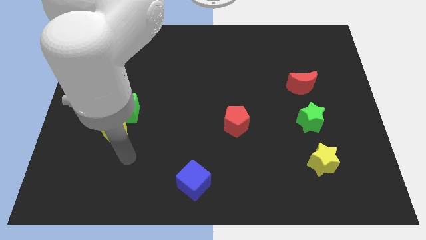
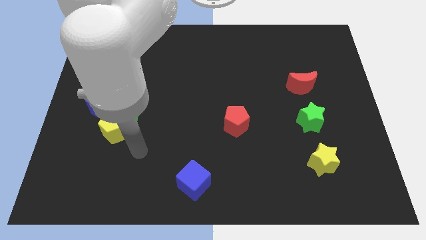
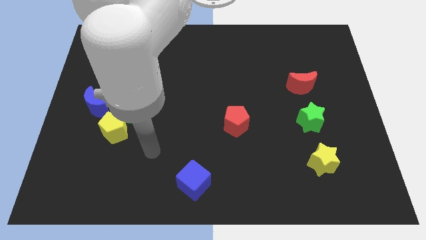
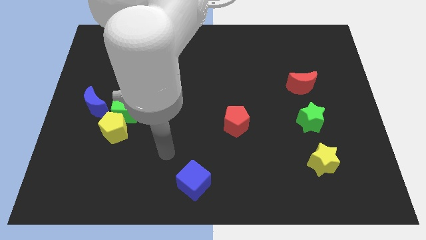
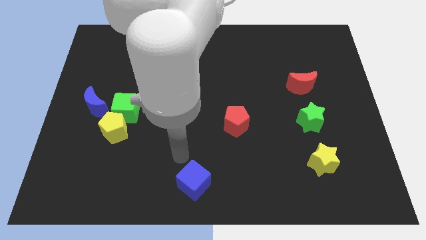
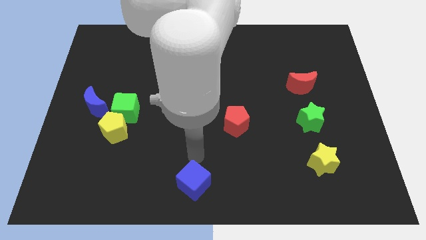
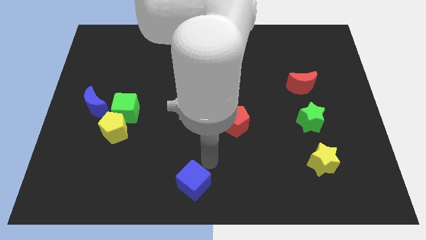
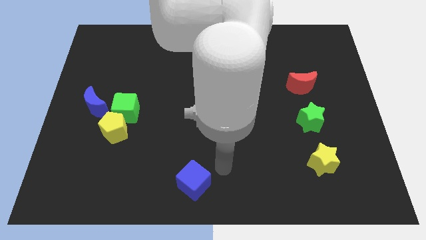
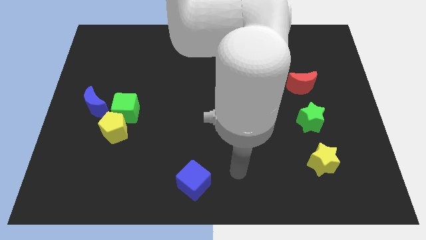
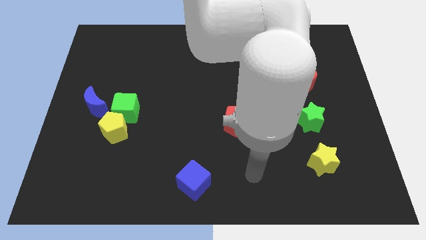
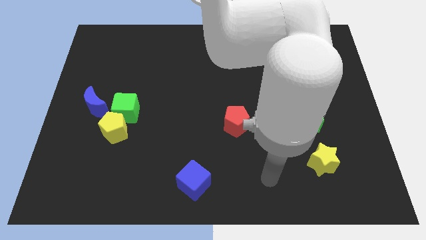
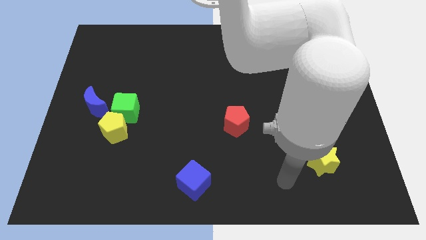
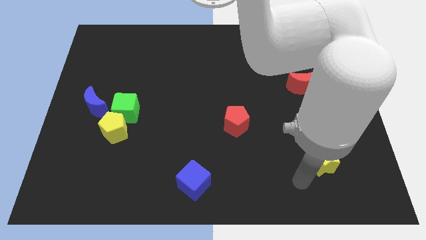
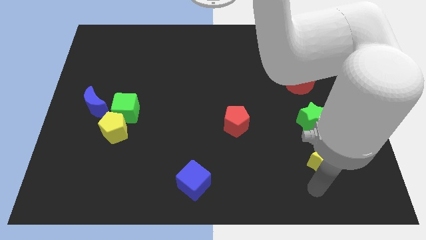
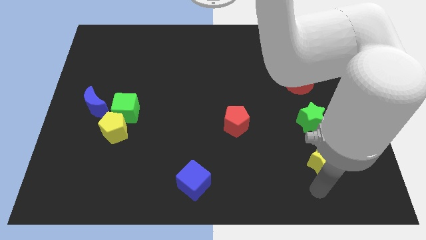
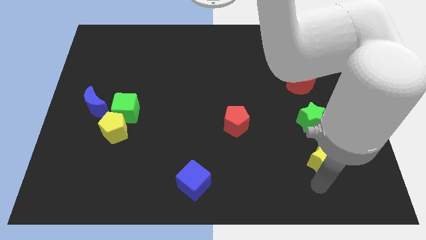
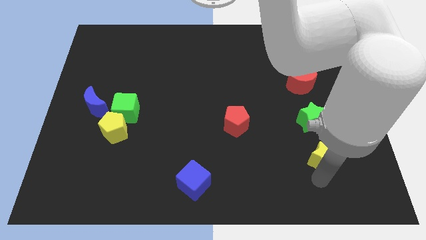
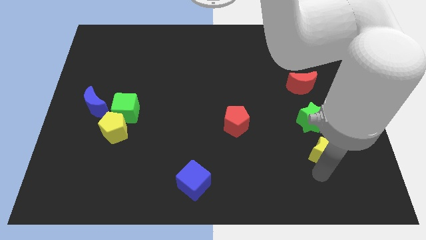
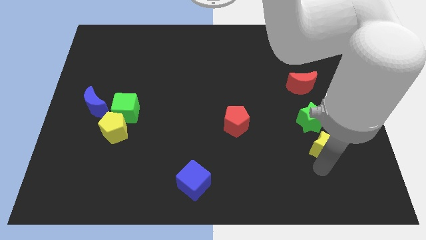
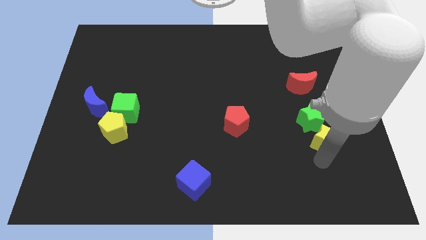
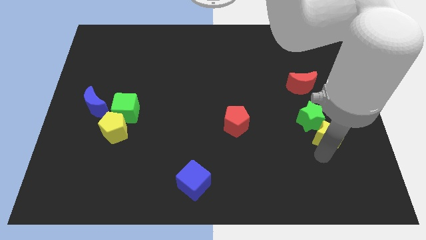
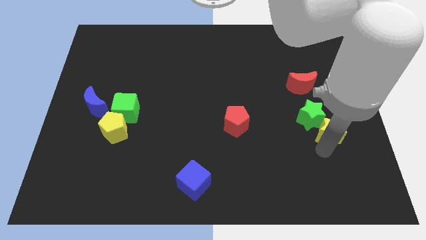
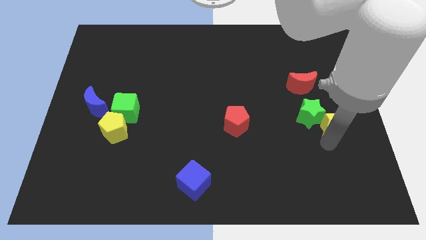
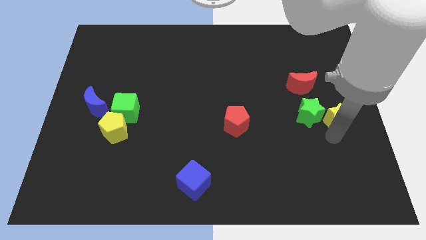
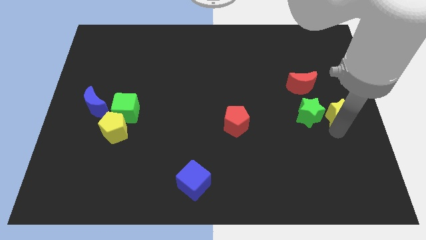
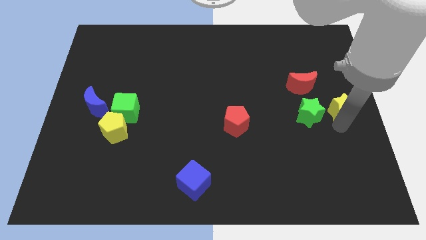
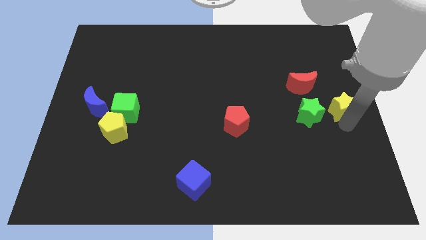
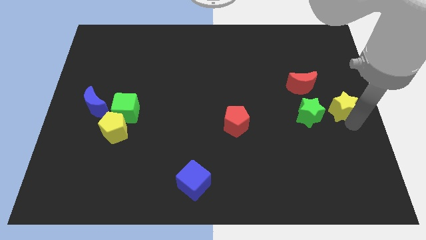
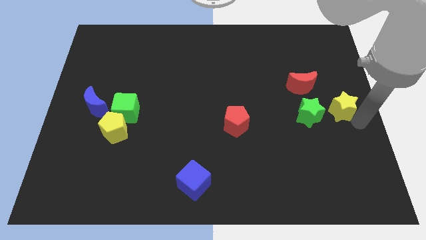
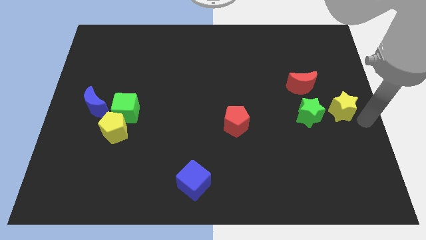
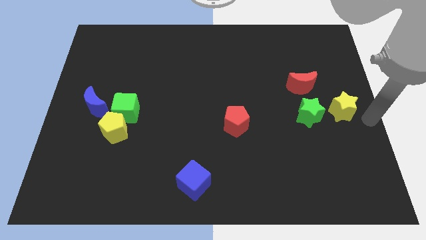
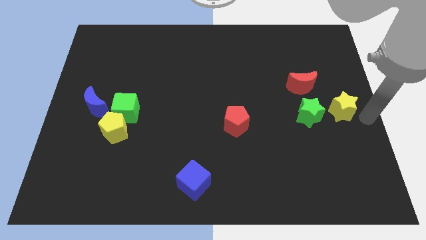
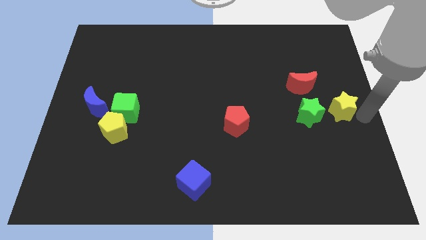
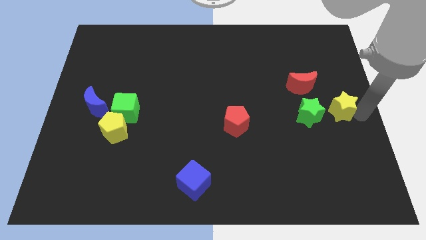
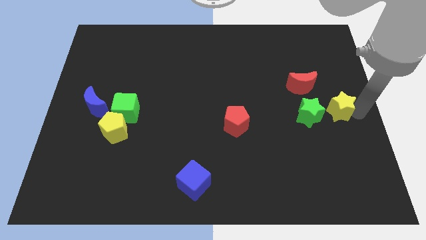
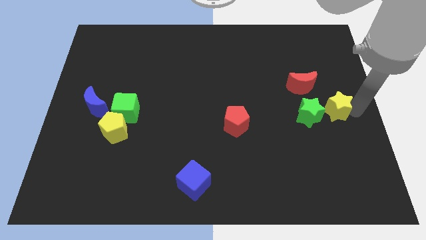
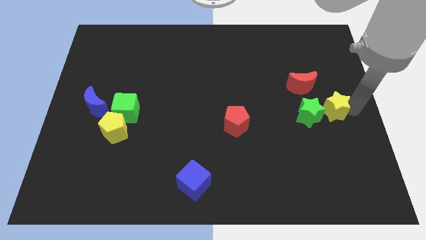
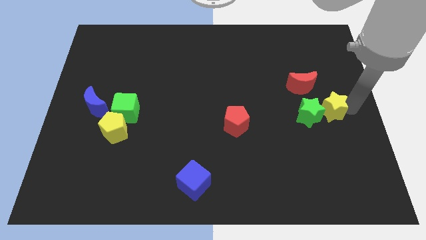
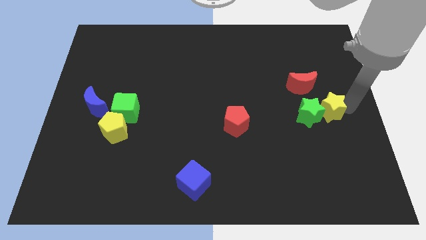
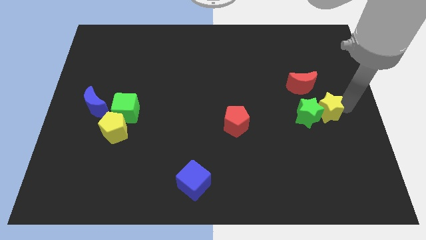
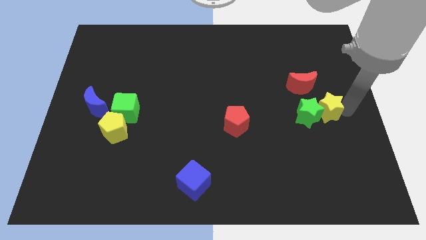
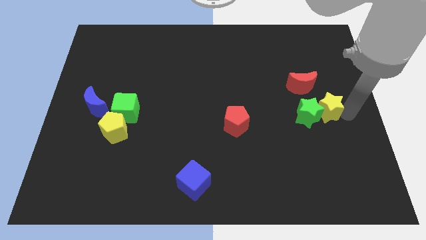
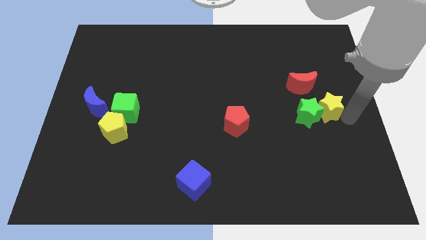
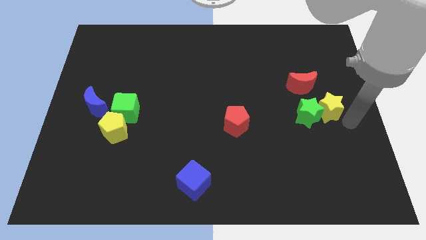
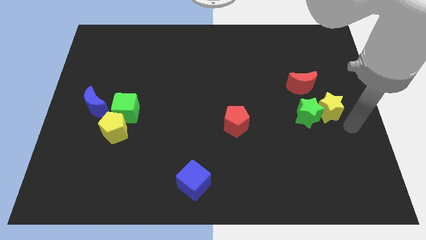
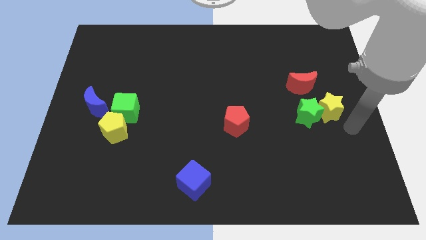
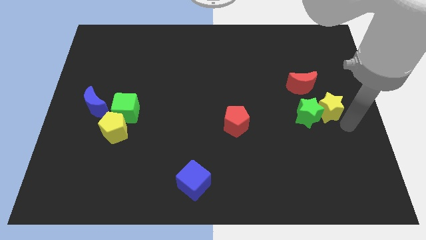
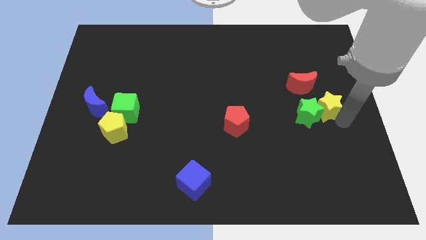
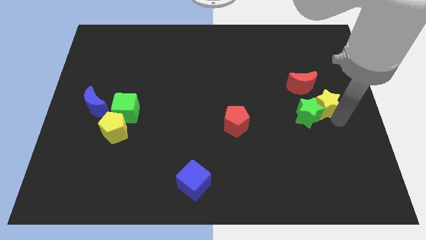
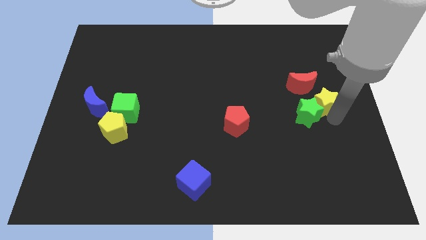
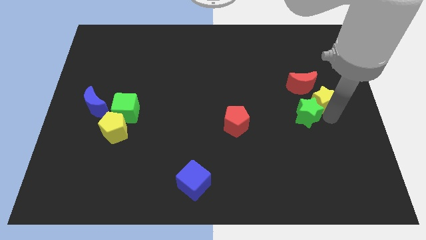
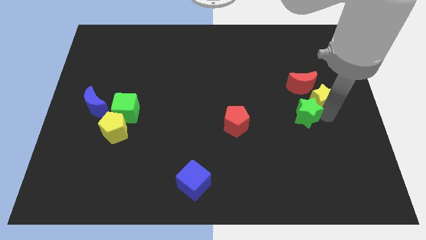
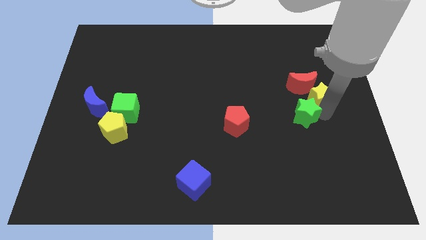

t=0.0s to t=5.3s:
push the yellow star next to the red moon

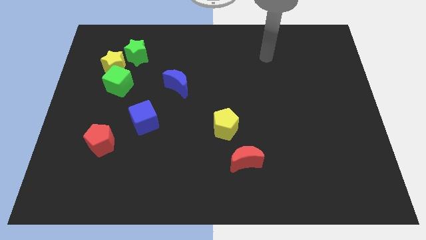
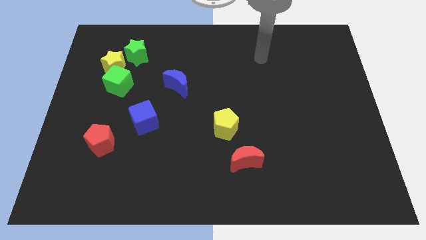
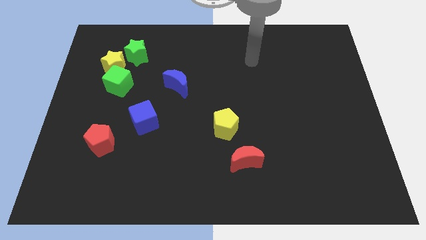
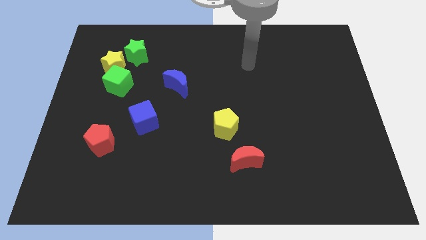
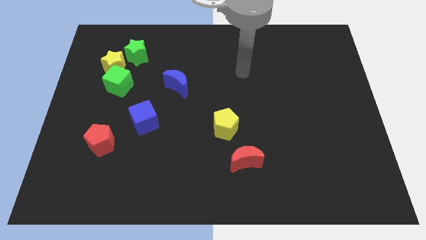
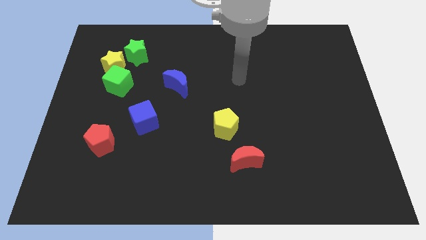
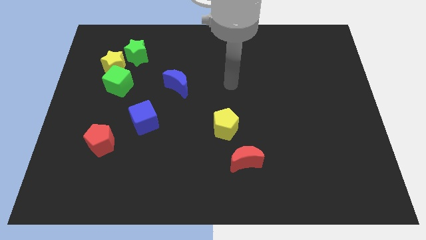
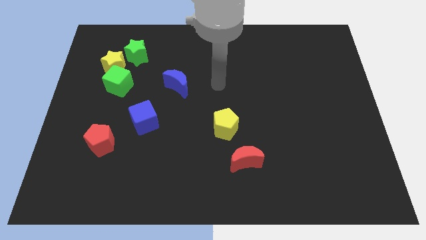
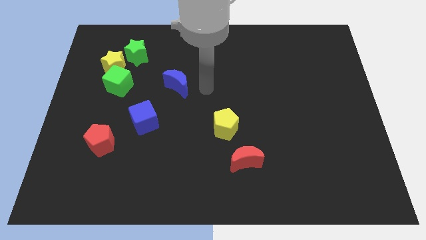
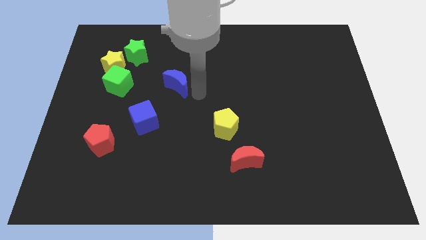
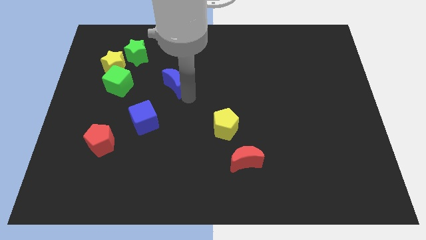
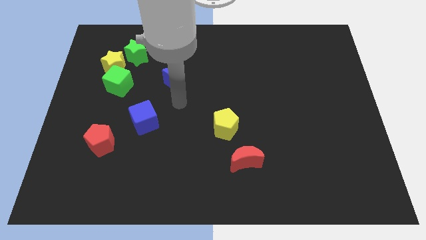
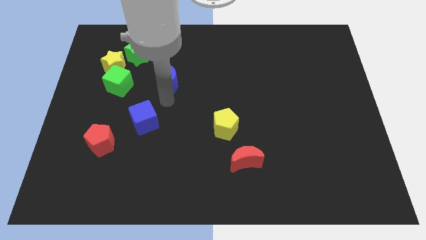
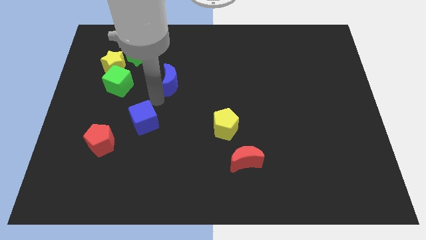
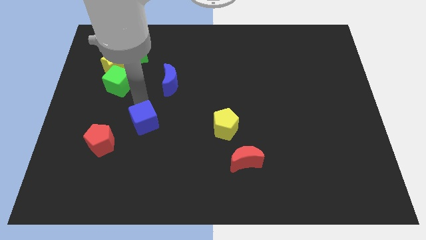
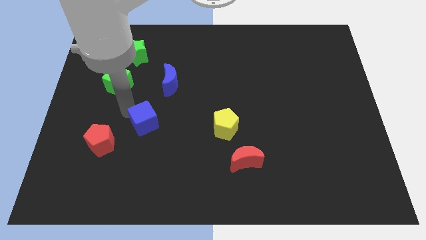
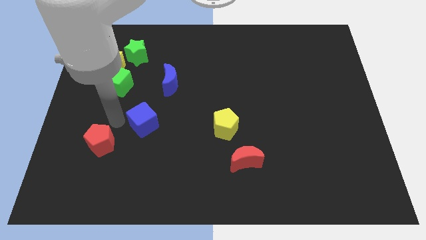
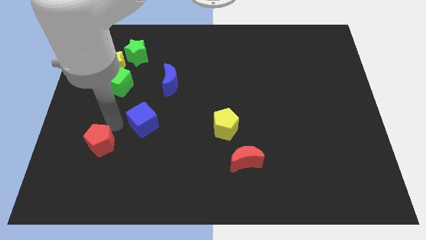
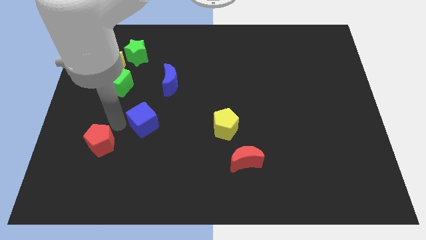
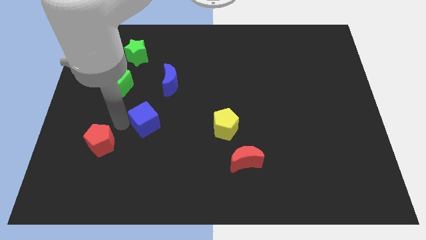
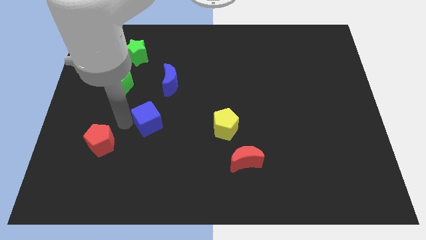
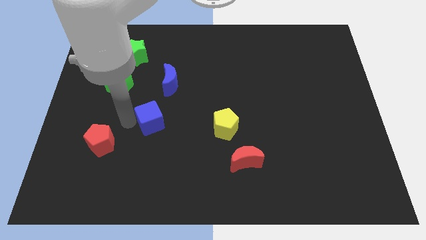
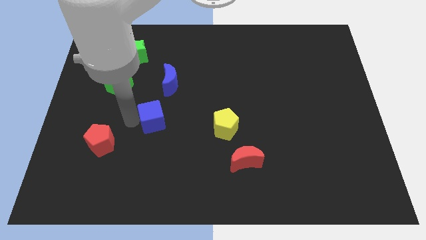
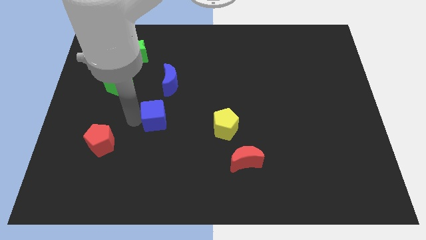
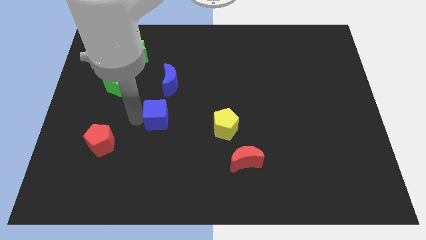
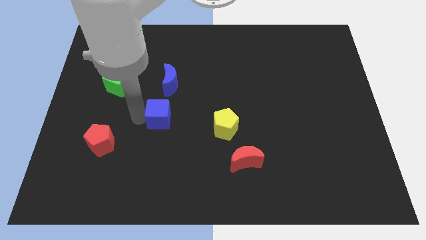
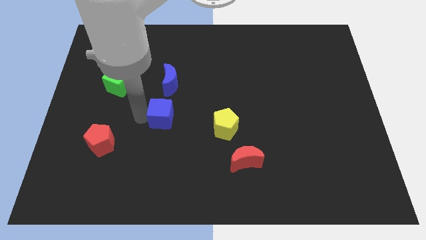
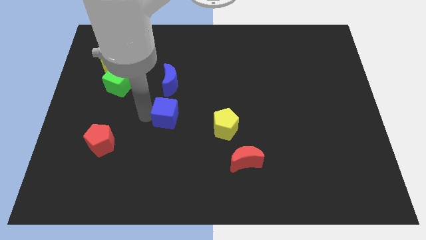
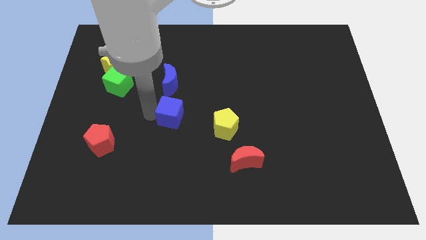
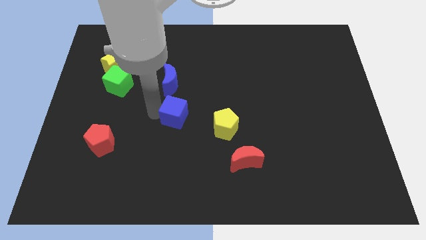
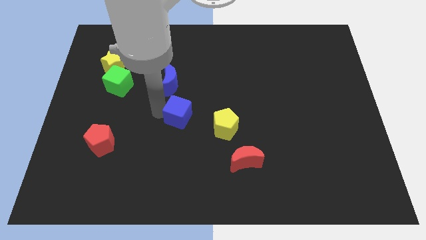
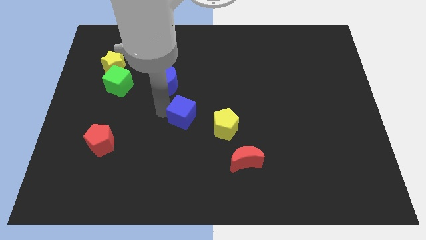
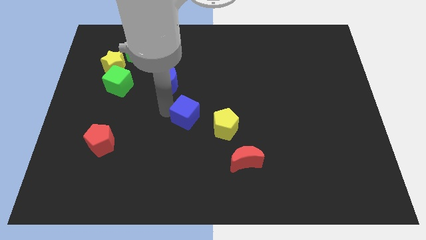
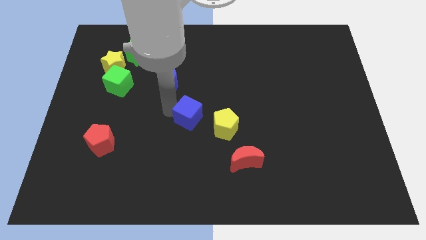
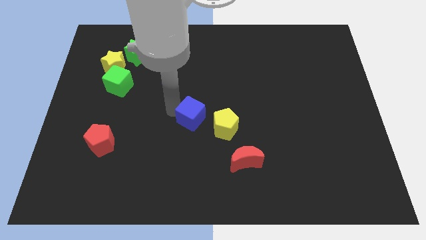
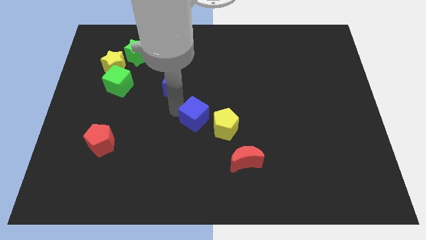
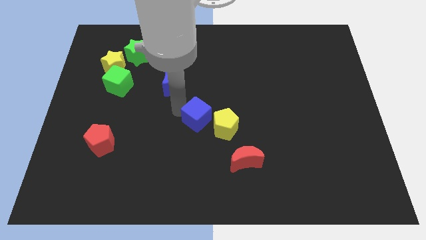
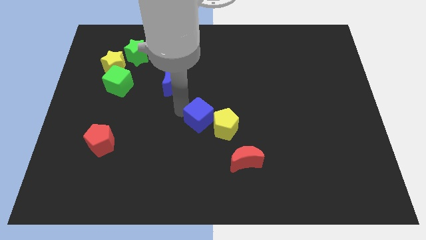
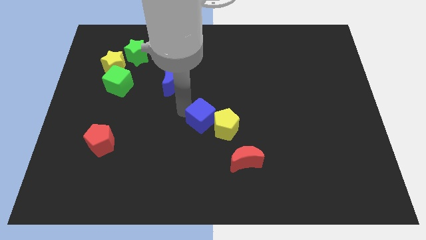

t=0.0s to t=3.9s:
slide the blue cube close to the yellow pentagon
